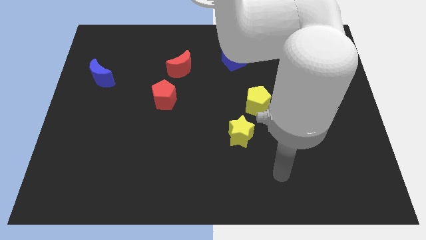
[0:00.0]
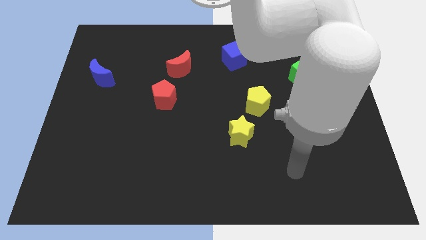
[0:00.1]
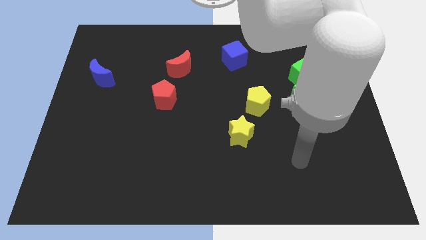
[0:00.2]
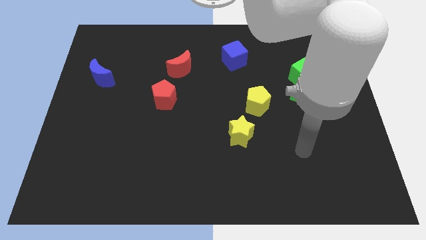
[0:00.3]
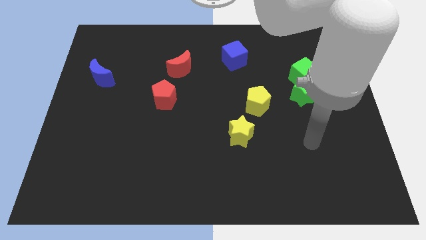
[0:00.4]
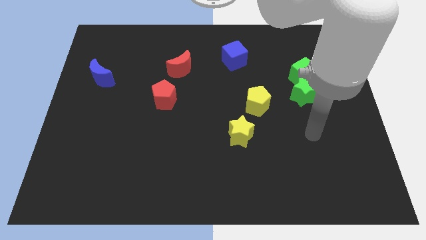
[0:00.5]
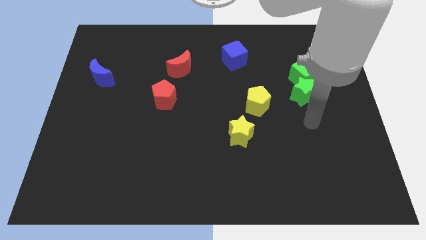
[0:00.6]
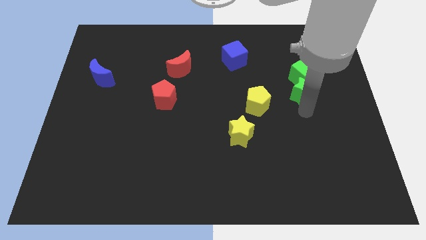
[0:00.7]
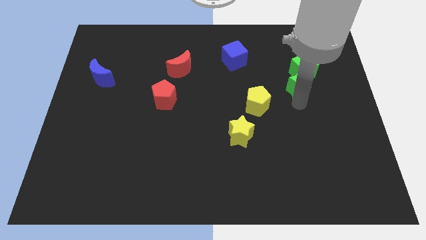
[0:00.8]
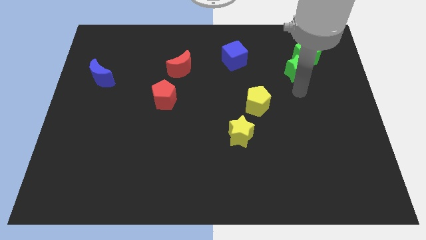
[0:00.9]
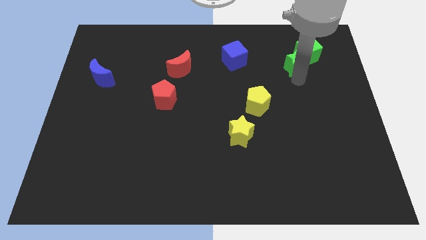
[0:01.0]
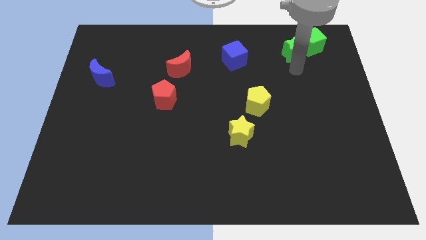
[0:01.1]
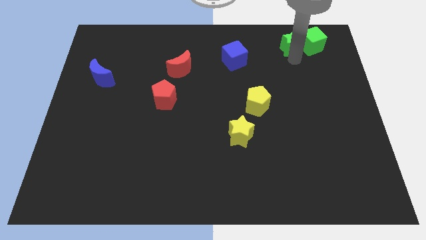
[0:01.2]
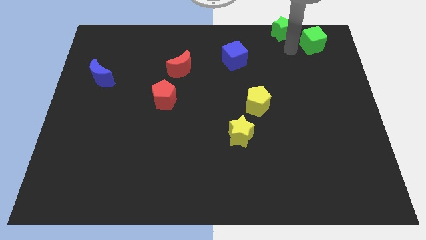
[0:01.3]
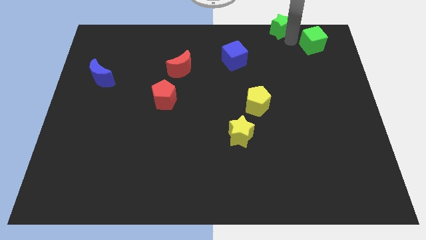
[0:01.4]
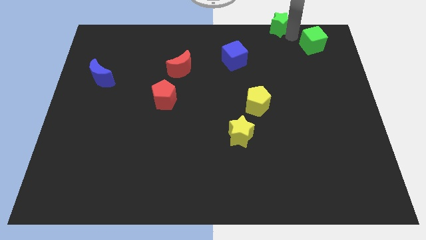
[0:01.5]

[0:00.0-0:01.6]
move the green cube away from the green star

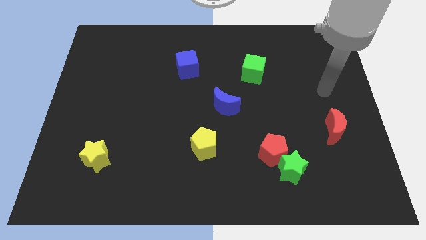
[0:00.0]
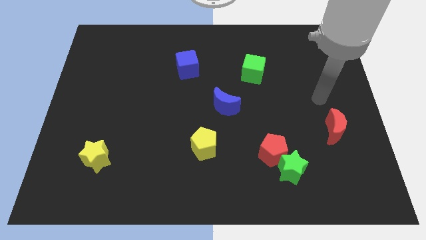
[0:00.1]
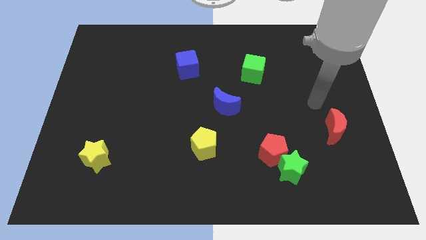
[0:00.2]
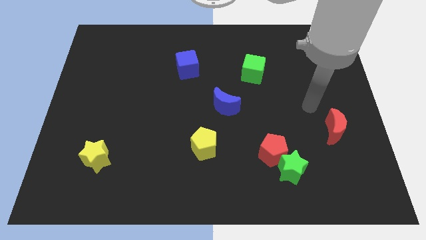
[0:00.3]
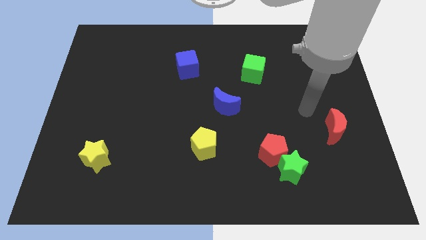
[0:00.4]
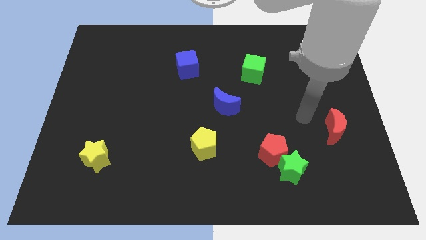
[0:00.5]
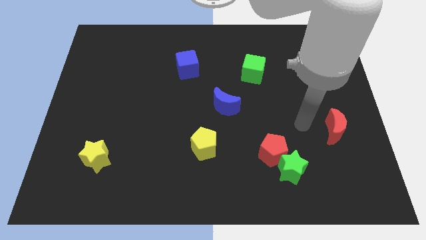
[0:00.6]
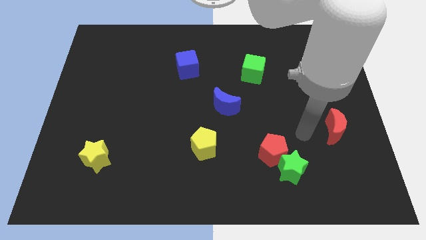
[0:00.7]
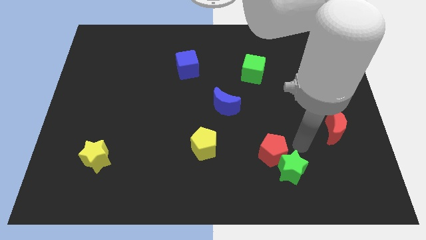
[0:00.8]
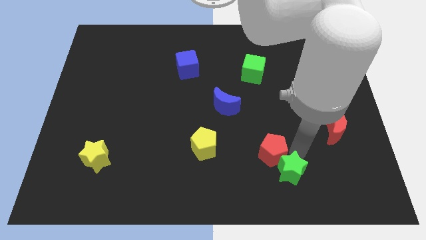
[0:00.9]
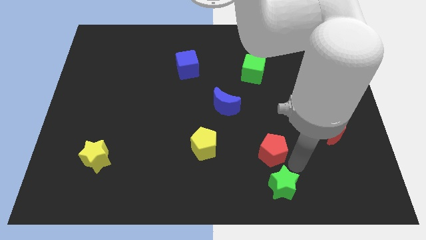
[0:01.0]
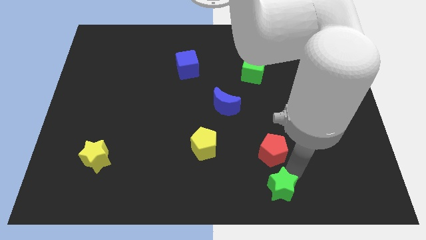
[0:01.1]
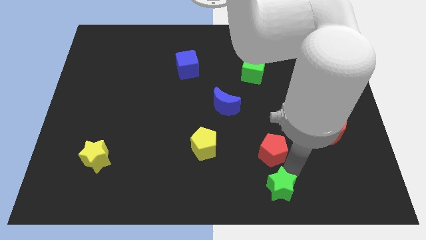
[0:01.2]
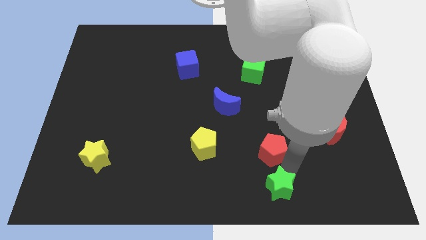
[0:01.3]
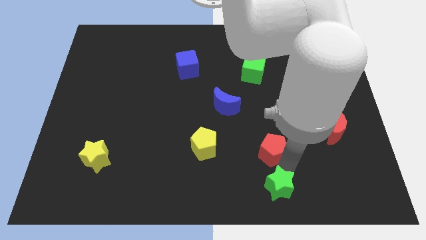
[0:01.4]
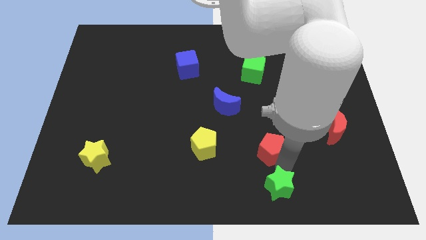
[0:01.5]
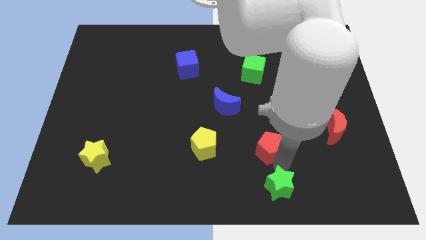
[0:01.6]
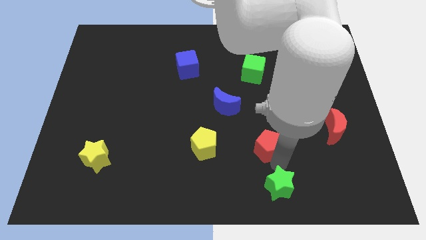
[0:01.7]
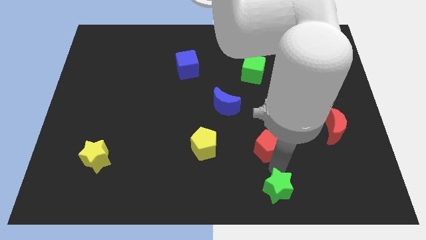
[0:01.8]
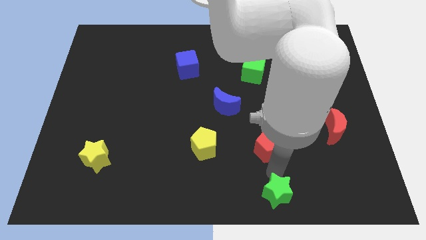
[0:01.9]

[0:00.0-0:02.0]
move the red pentagon away from the green star

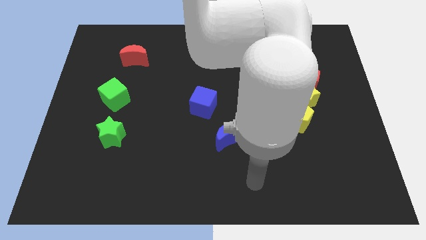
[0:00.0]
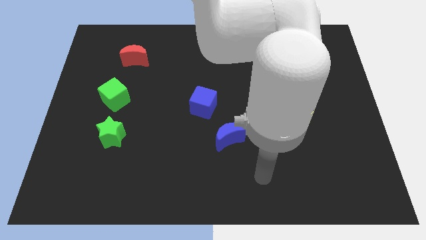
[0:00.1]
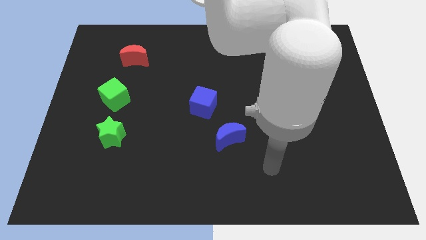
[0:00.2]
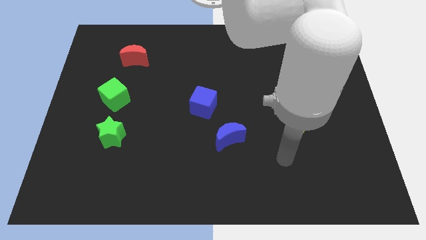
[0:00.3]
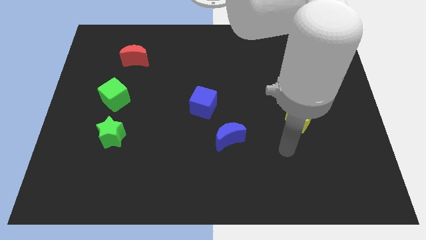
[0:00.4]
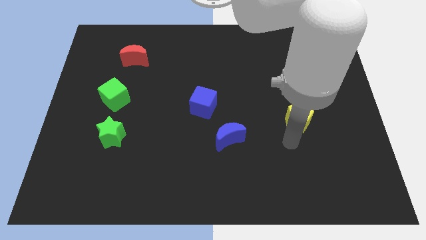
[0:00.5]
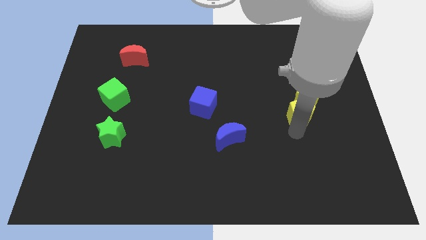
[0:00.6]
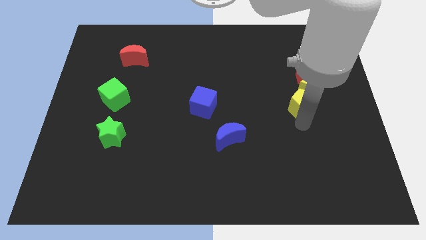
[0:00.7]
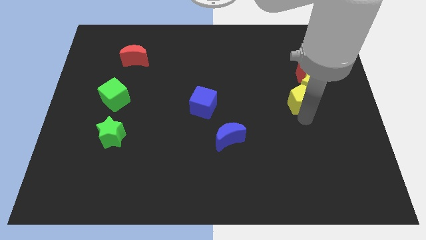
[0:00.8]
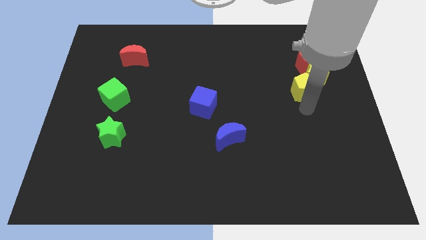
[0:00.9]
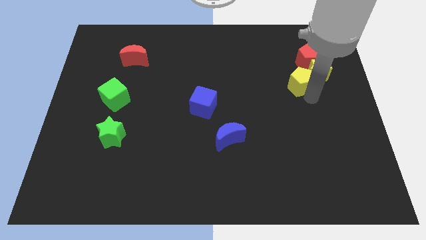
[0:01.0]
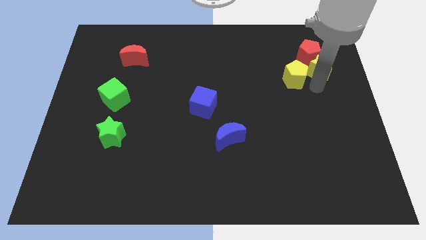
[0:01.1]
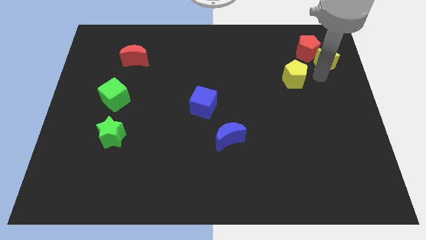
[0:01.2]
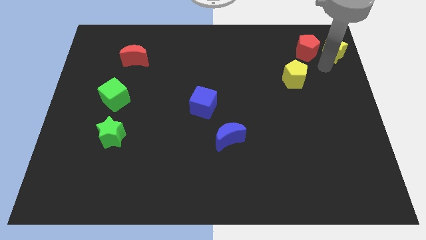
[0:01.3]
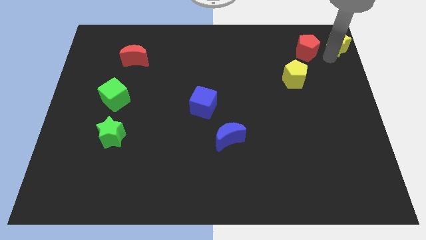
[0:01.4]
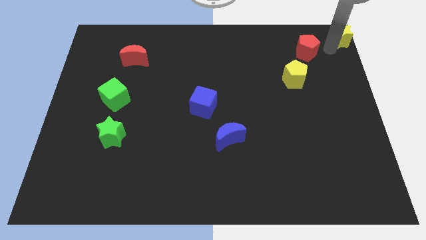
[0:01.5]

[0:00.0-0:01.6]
pull the red pentagon apart from the yellow star

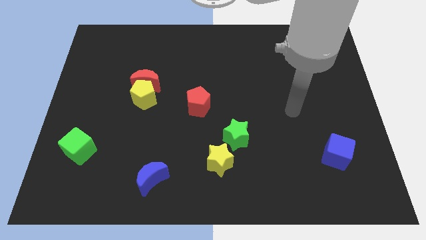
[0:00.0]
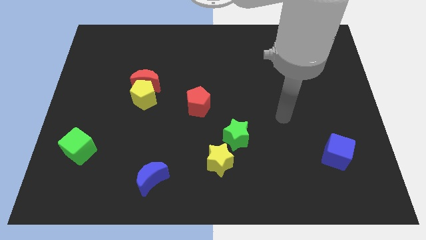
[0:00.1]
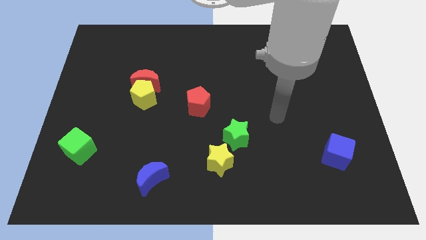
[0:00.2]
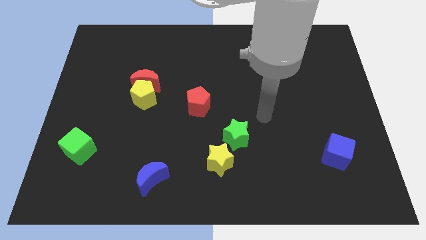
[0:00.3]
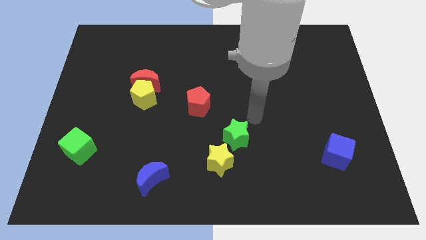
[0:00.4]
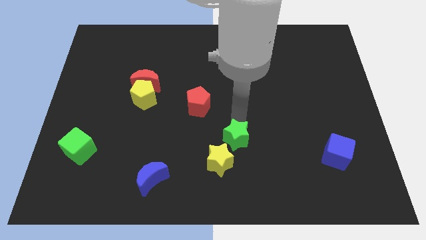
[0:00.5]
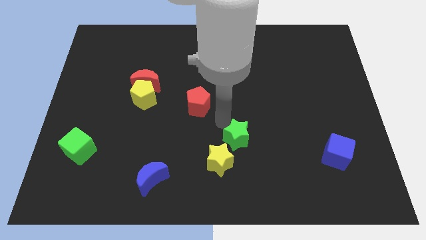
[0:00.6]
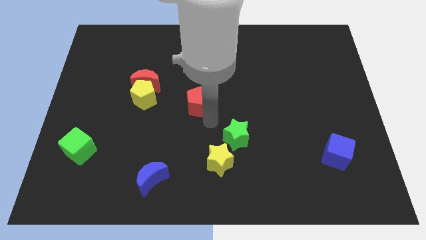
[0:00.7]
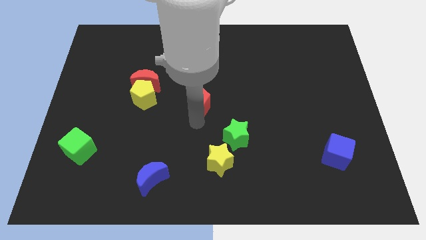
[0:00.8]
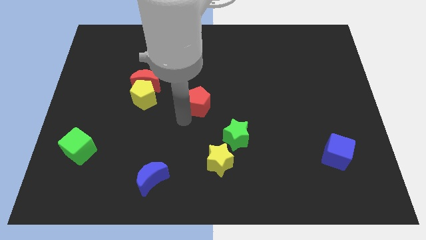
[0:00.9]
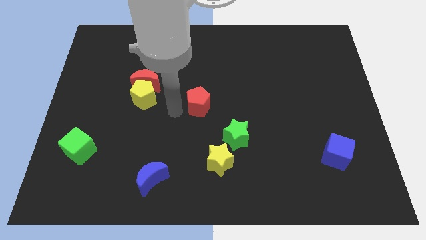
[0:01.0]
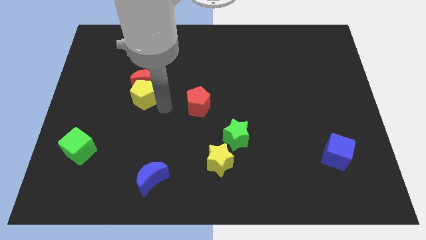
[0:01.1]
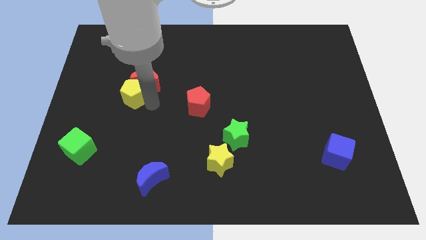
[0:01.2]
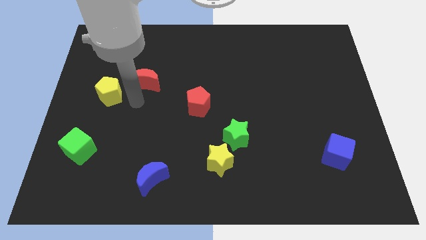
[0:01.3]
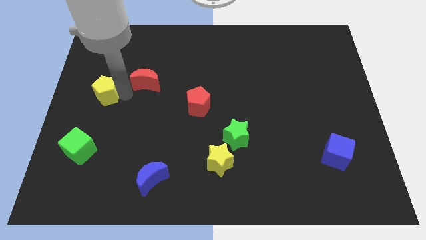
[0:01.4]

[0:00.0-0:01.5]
pull the red moon apart from the yellow pentagon

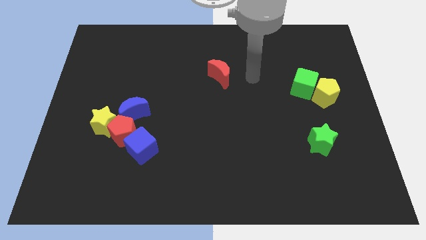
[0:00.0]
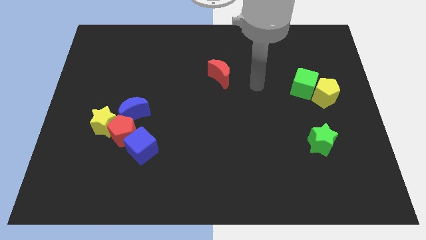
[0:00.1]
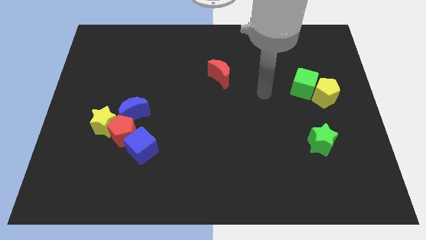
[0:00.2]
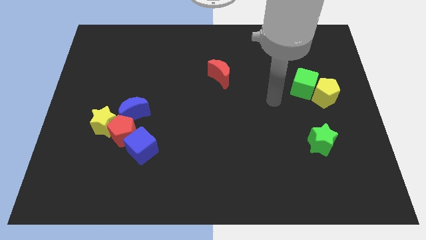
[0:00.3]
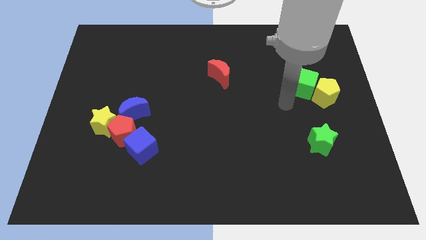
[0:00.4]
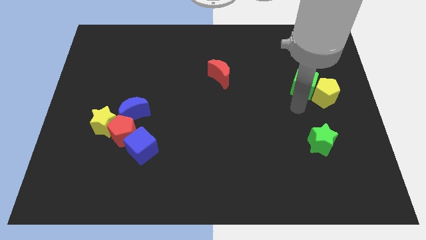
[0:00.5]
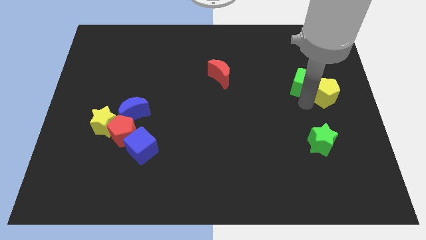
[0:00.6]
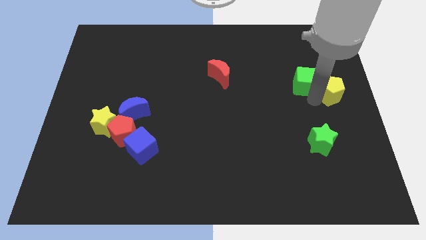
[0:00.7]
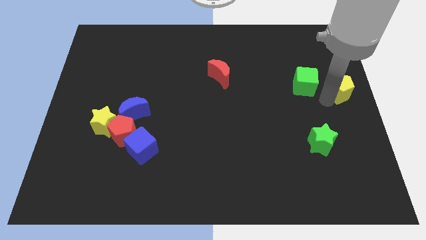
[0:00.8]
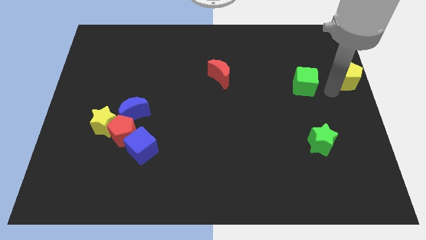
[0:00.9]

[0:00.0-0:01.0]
separate the green cube from the yellow pentagon

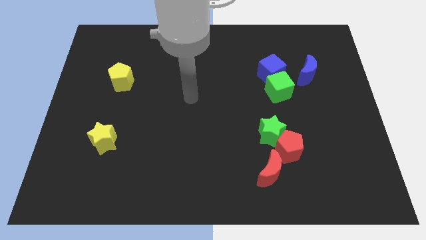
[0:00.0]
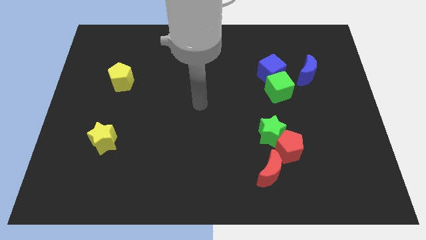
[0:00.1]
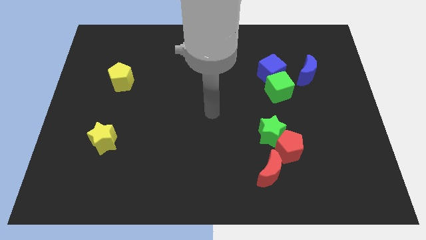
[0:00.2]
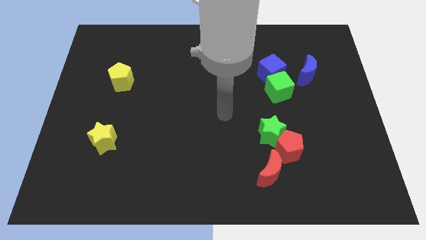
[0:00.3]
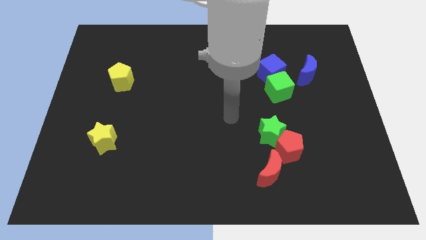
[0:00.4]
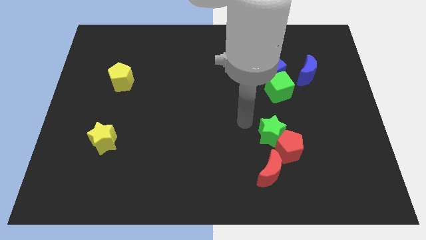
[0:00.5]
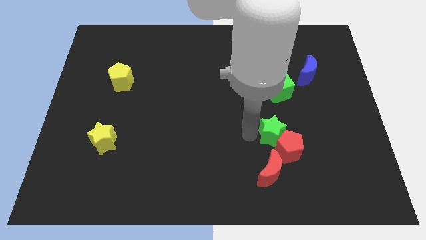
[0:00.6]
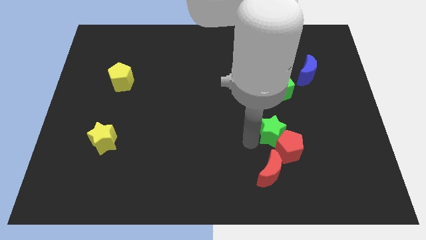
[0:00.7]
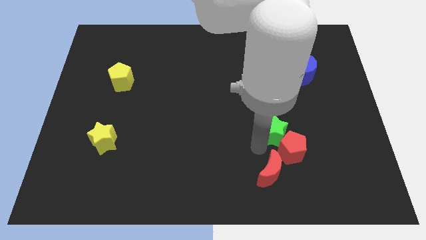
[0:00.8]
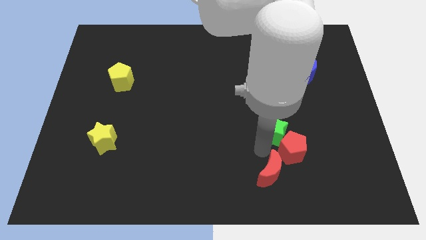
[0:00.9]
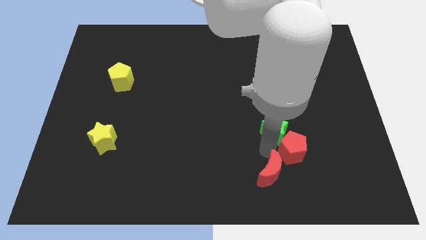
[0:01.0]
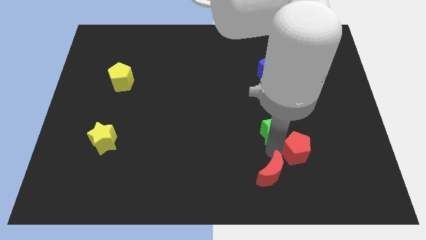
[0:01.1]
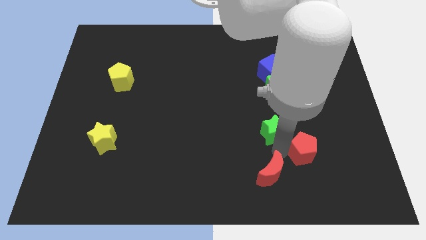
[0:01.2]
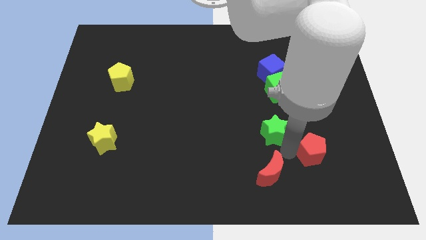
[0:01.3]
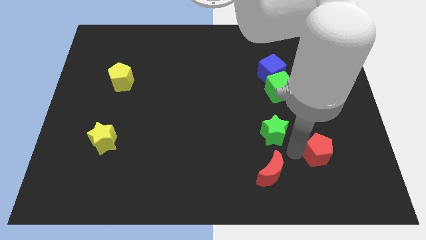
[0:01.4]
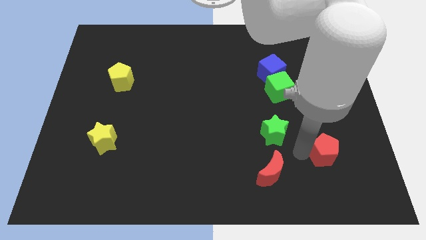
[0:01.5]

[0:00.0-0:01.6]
separate the red pentagon from the green star and red moon
